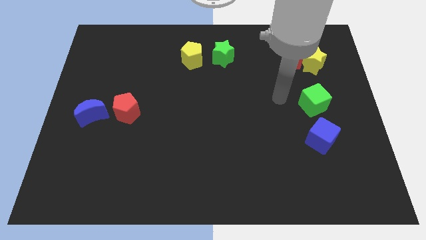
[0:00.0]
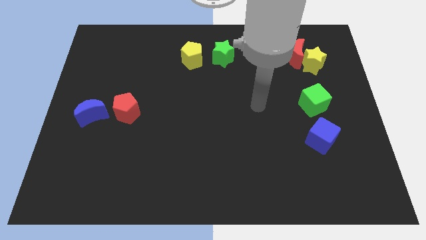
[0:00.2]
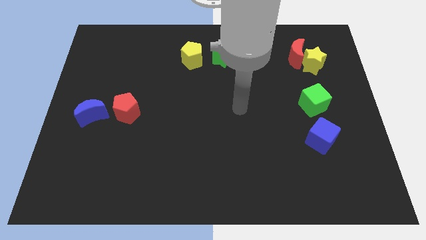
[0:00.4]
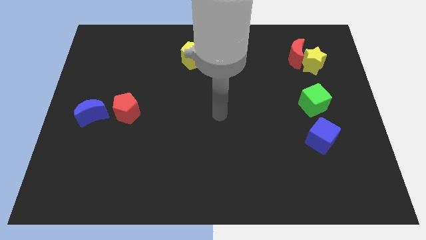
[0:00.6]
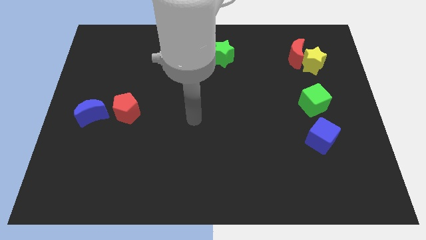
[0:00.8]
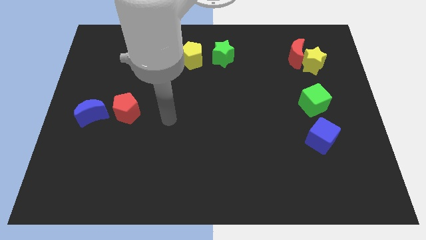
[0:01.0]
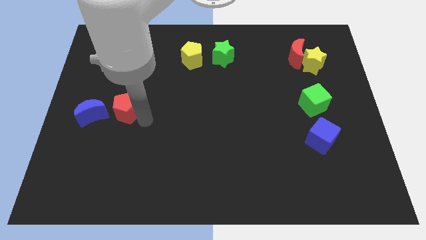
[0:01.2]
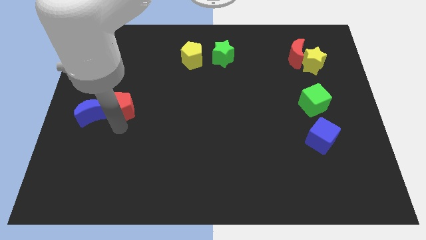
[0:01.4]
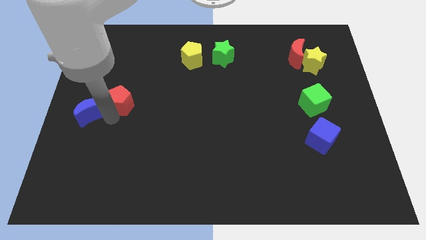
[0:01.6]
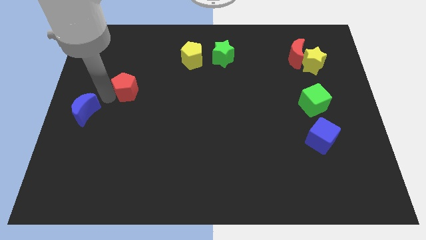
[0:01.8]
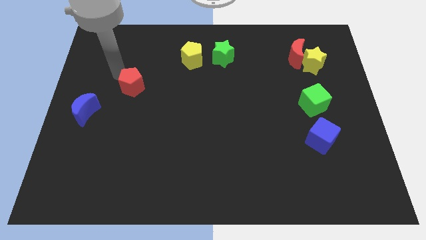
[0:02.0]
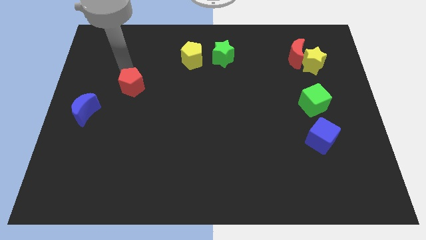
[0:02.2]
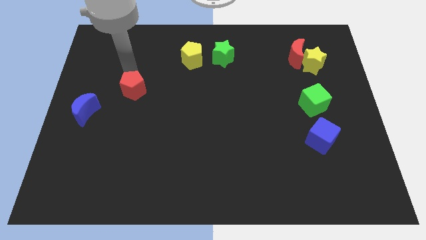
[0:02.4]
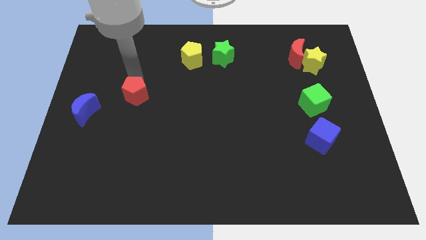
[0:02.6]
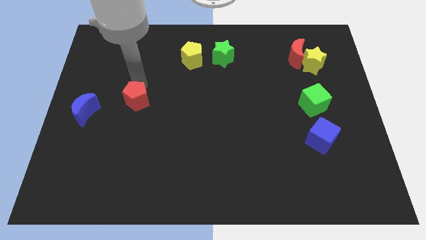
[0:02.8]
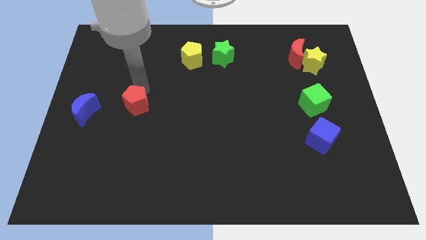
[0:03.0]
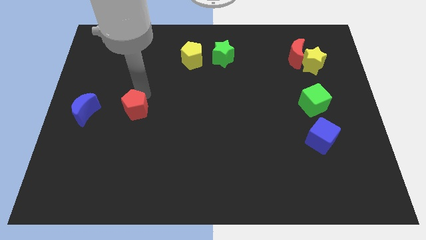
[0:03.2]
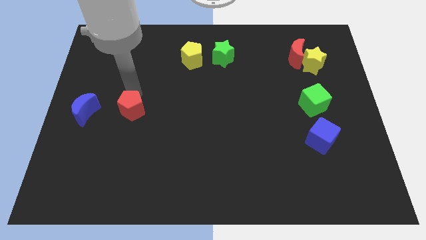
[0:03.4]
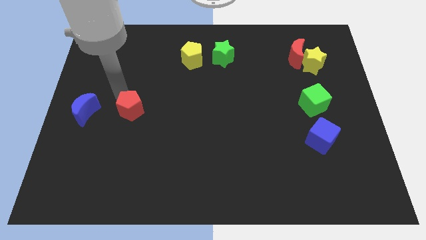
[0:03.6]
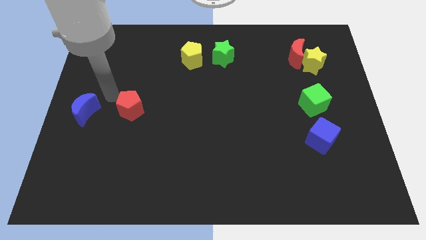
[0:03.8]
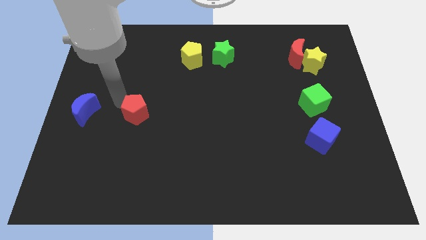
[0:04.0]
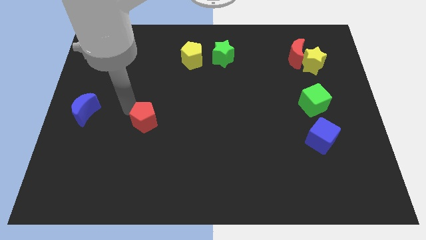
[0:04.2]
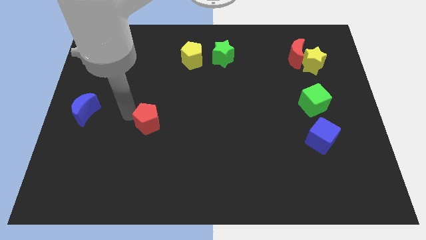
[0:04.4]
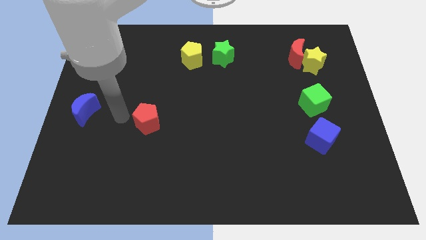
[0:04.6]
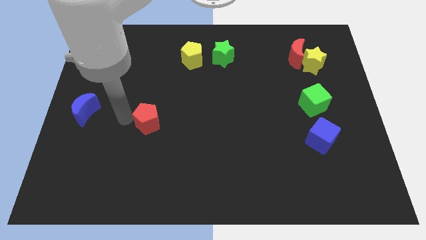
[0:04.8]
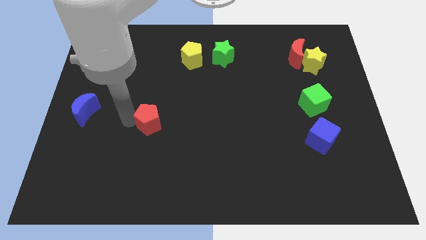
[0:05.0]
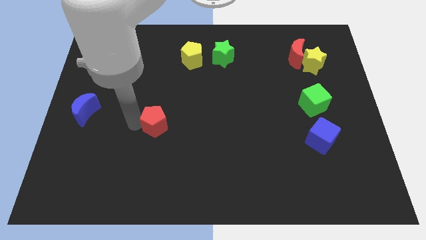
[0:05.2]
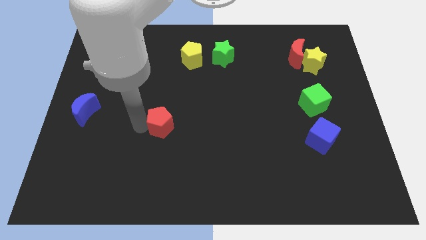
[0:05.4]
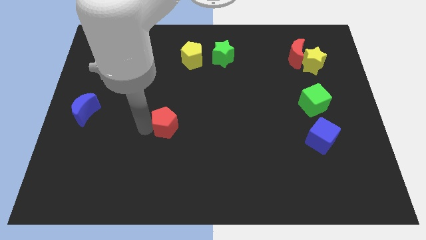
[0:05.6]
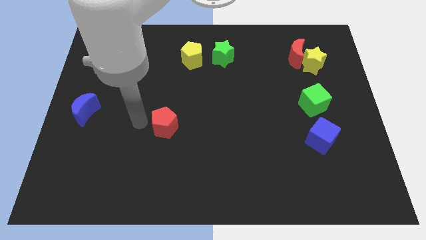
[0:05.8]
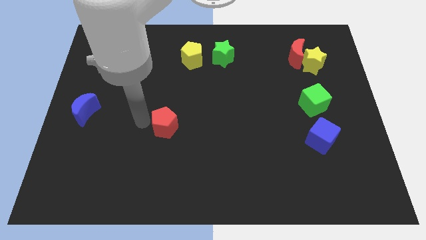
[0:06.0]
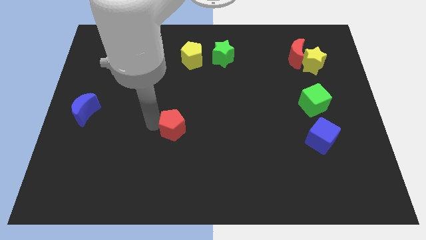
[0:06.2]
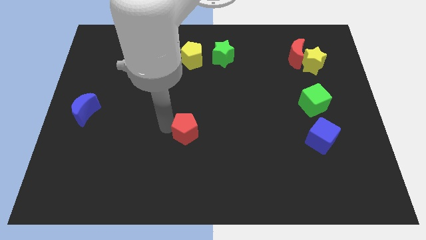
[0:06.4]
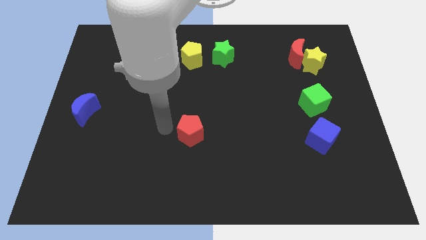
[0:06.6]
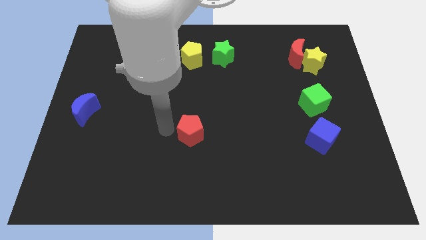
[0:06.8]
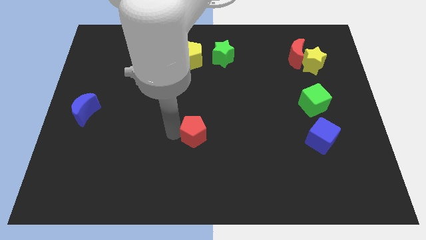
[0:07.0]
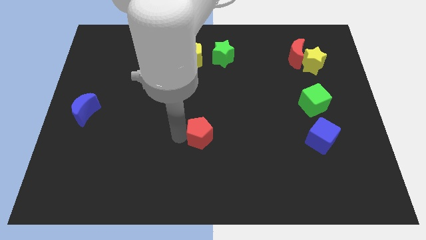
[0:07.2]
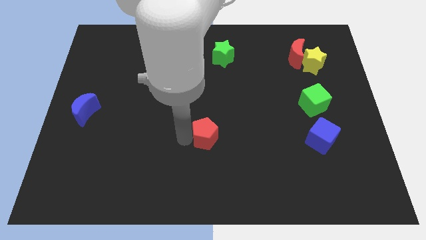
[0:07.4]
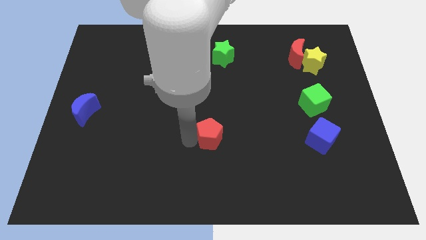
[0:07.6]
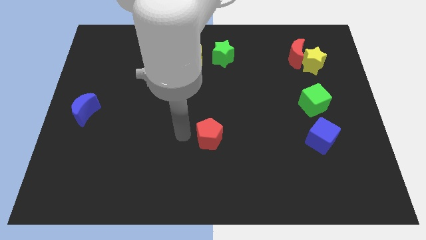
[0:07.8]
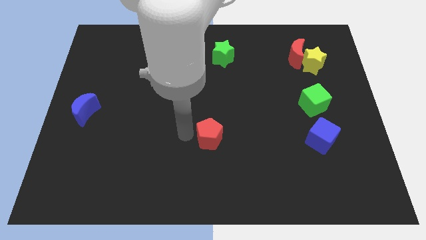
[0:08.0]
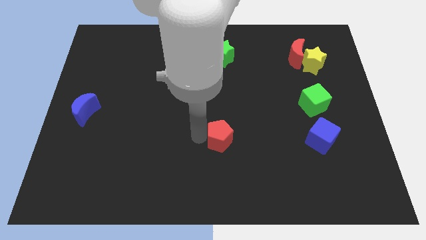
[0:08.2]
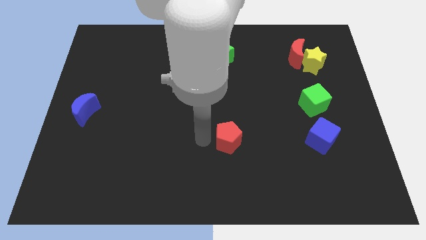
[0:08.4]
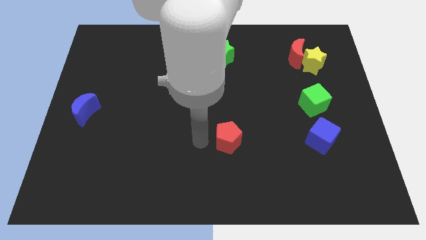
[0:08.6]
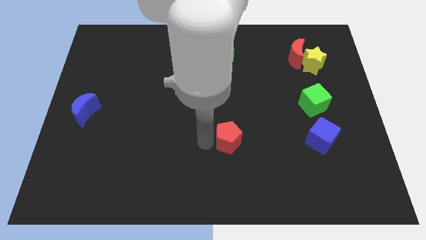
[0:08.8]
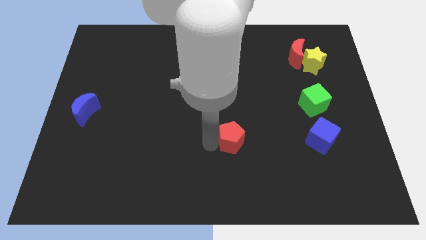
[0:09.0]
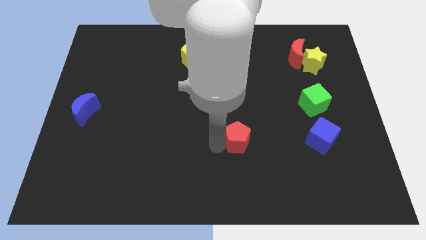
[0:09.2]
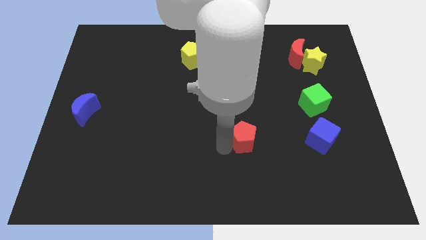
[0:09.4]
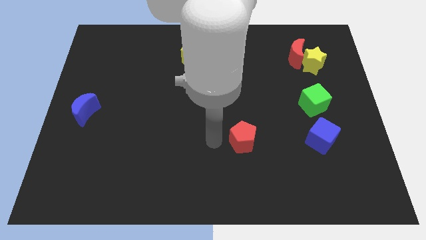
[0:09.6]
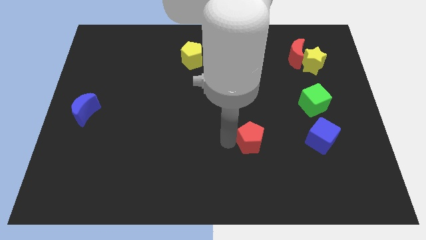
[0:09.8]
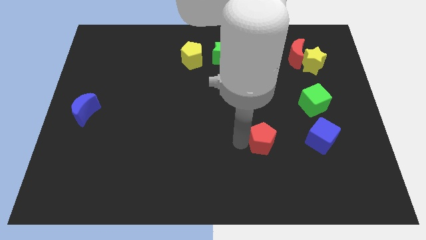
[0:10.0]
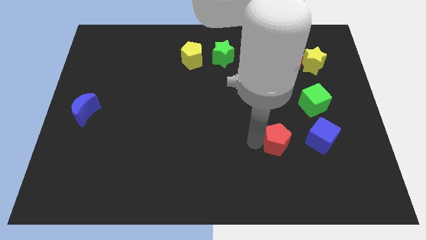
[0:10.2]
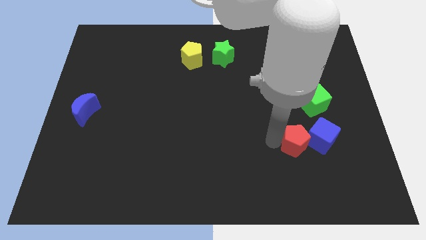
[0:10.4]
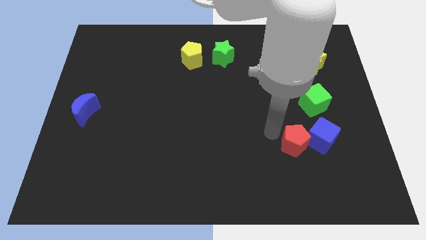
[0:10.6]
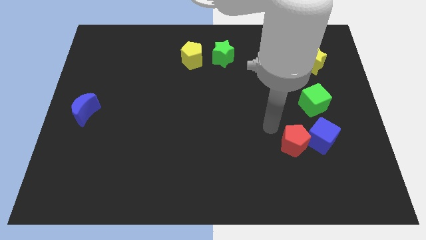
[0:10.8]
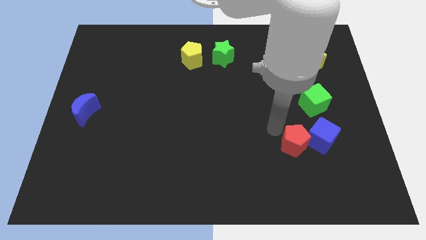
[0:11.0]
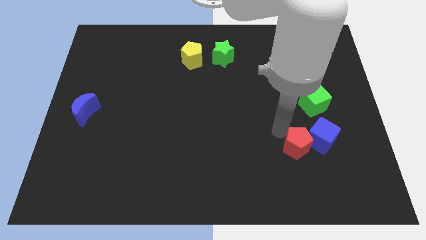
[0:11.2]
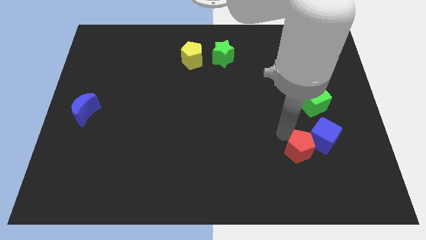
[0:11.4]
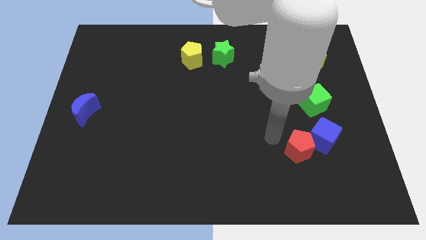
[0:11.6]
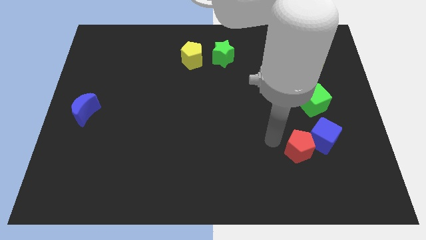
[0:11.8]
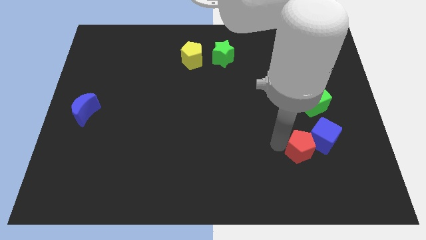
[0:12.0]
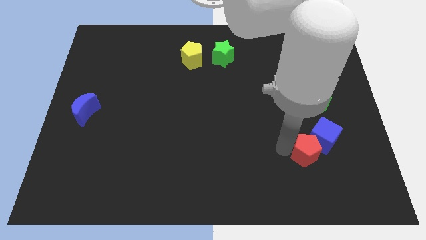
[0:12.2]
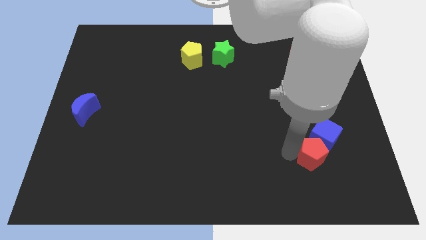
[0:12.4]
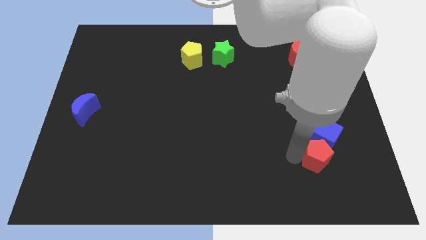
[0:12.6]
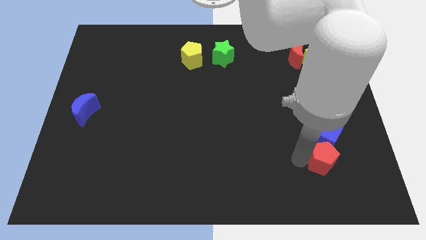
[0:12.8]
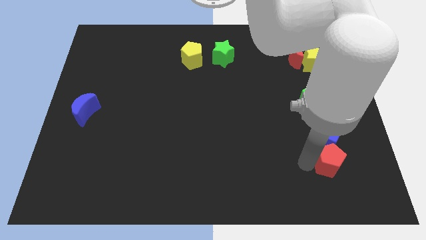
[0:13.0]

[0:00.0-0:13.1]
put the red pentagon to the bottom right side of the blue cube
